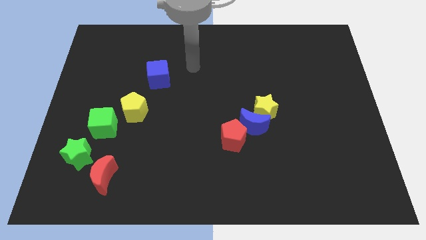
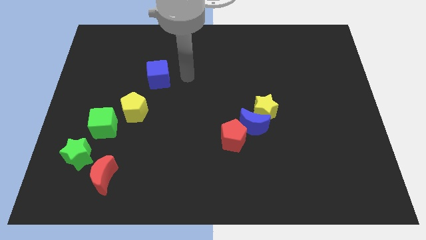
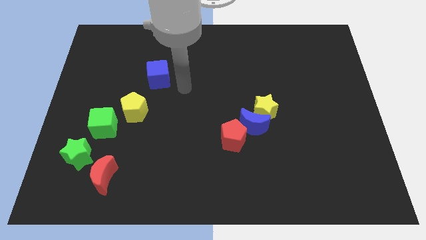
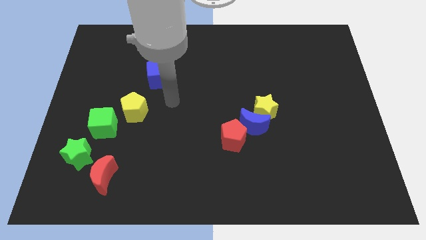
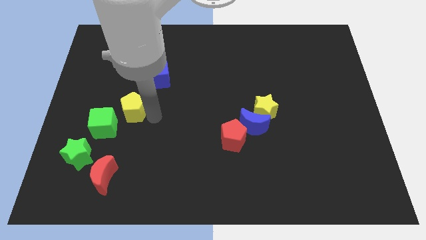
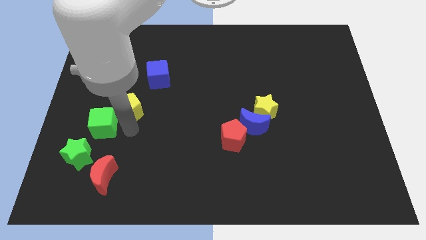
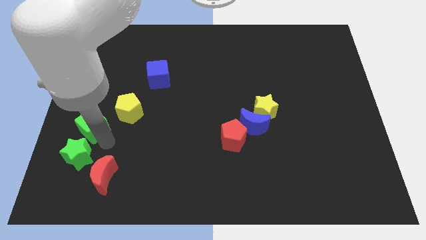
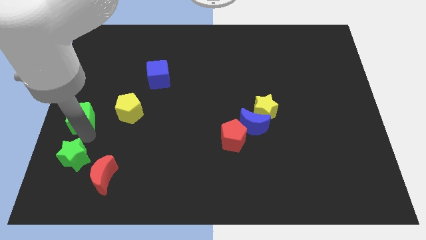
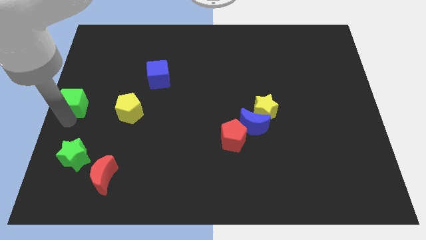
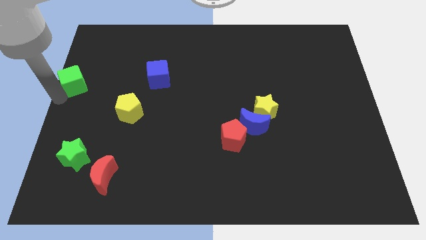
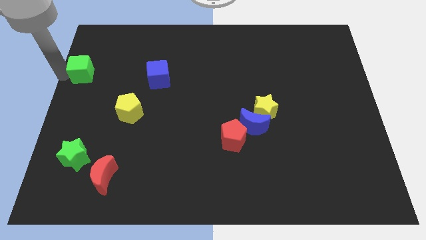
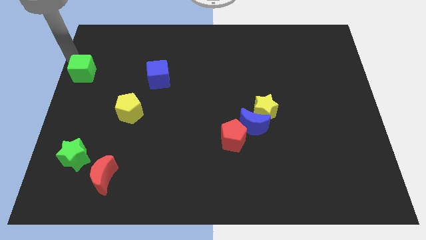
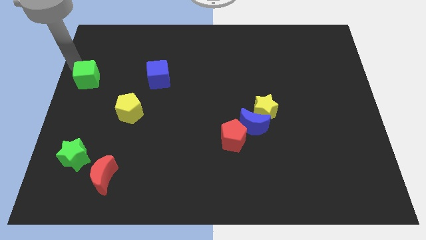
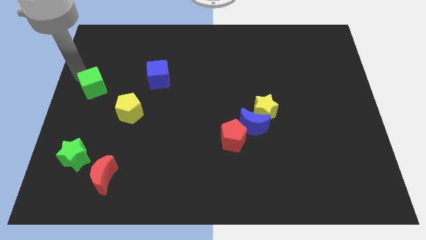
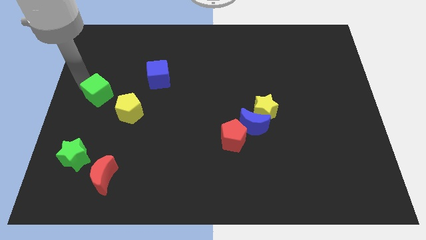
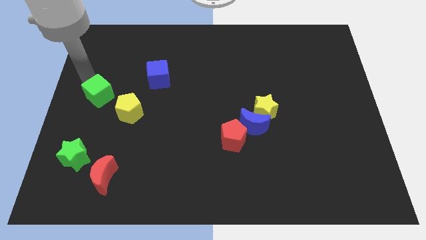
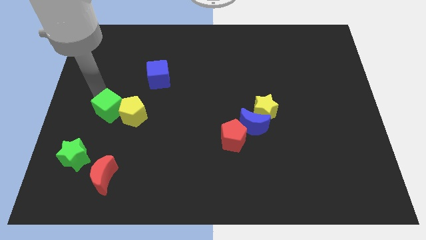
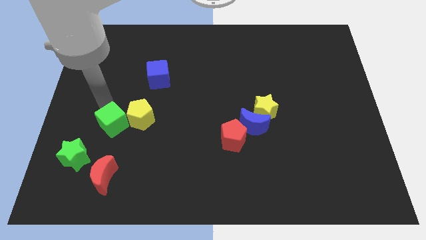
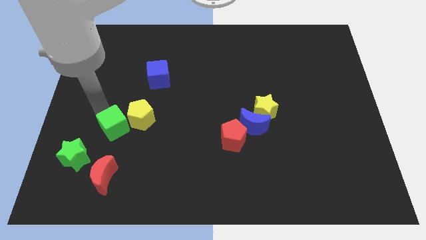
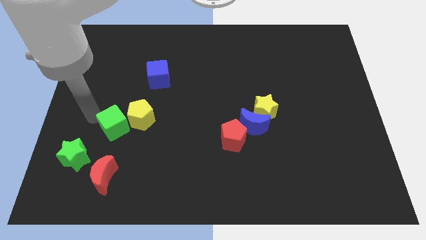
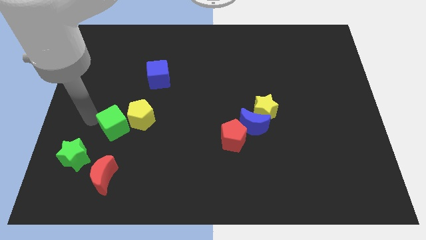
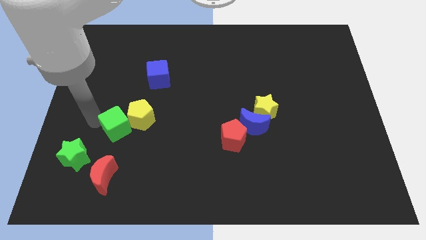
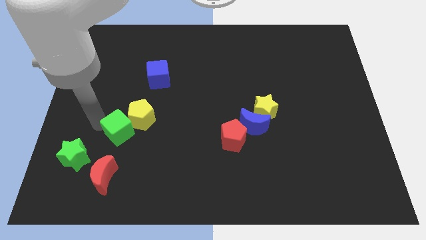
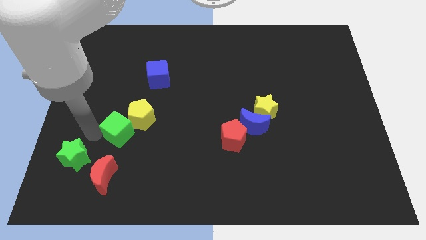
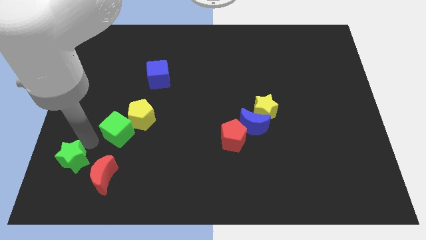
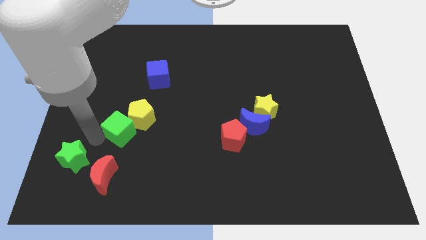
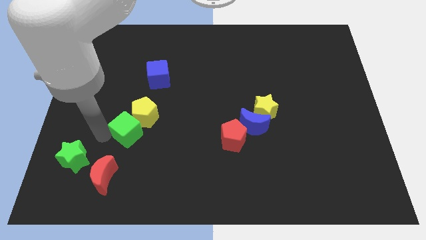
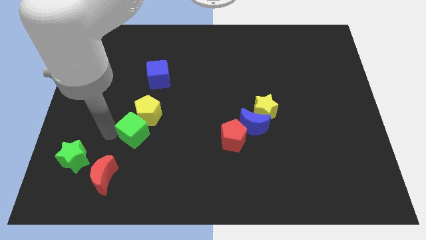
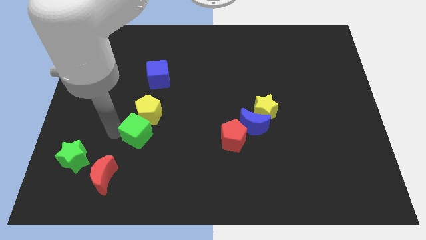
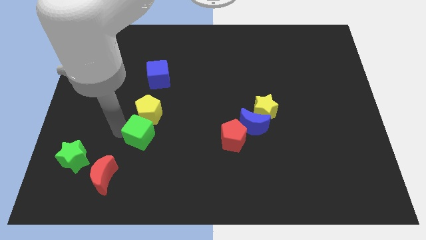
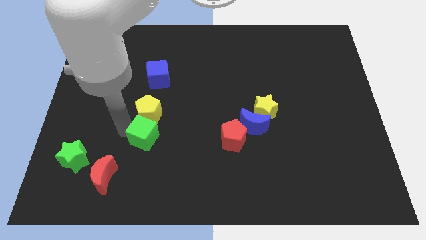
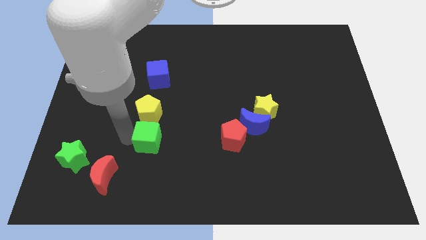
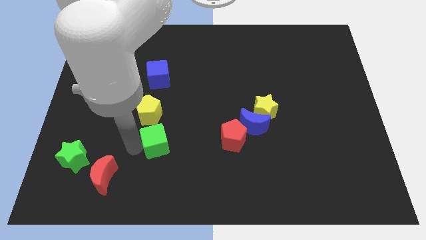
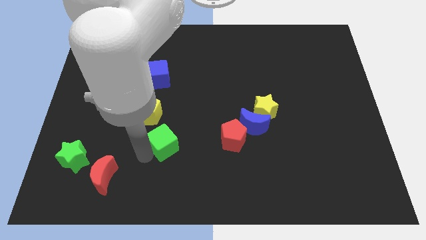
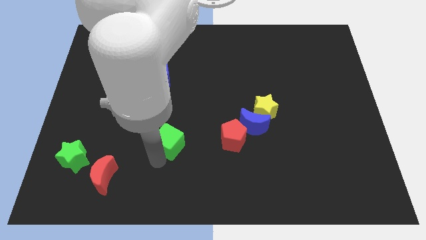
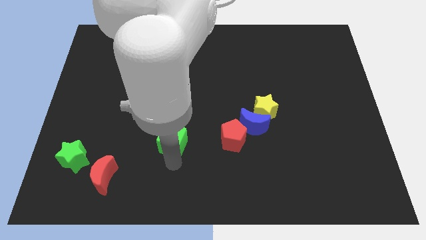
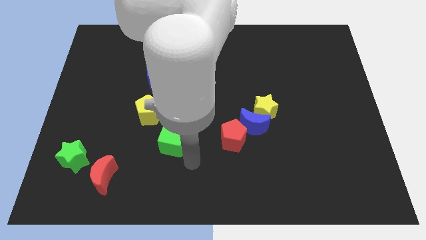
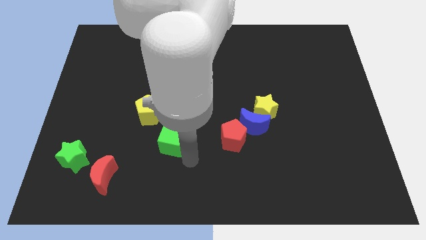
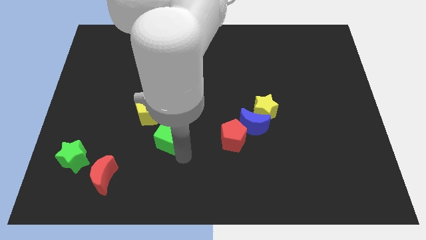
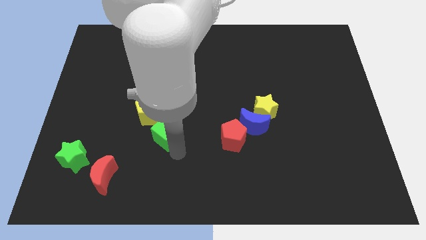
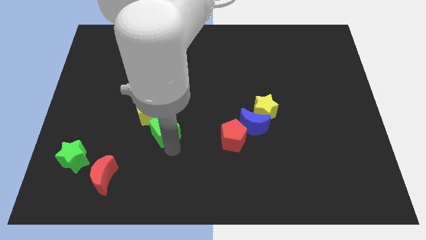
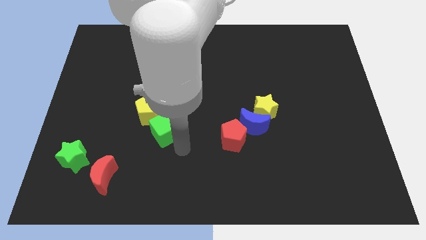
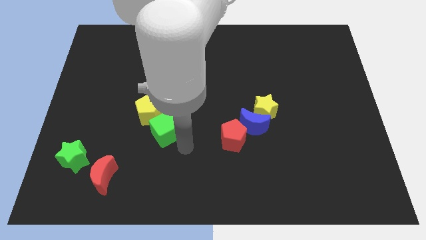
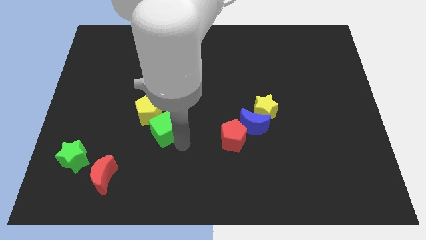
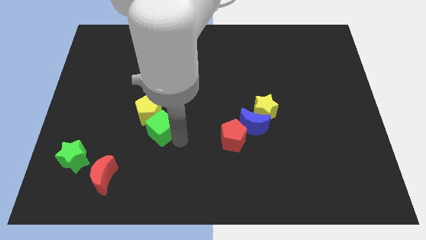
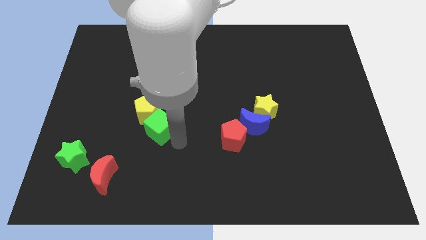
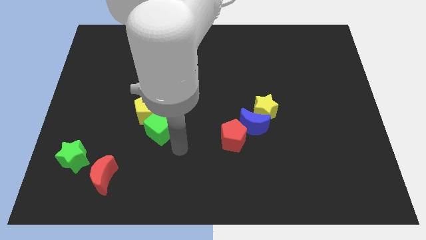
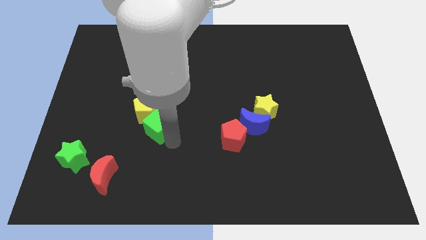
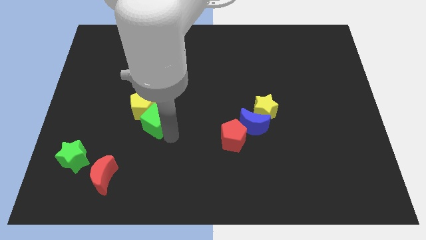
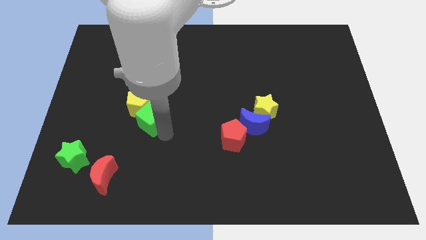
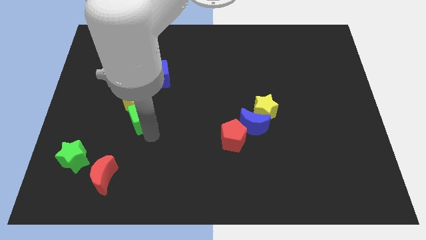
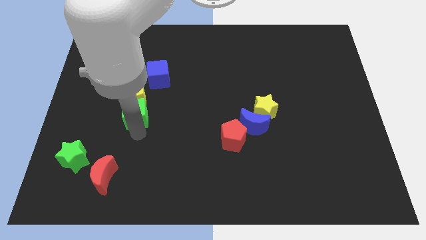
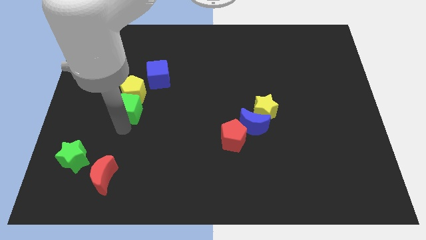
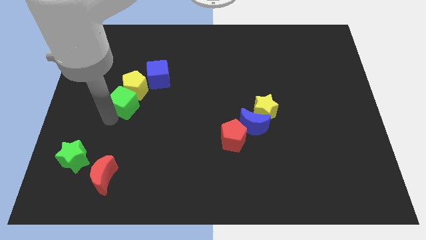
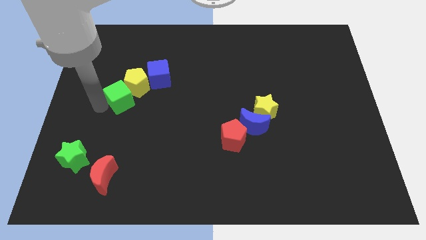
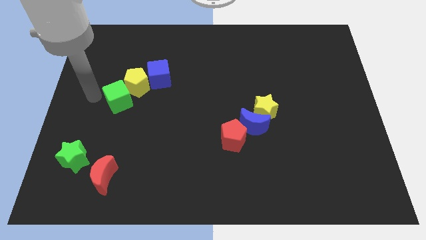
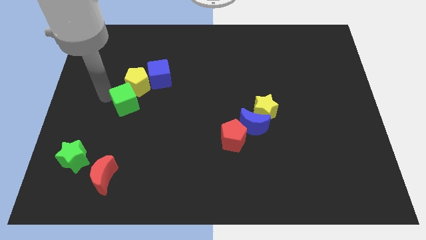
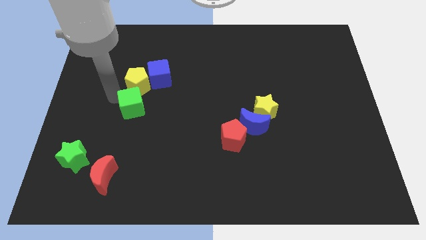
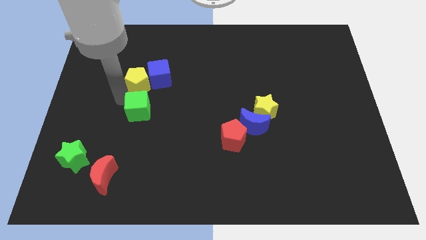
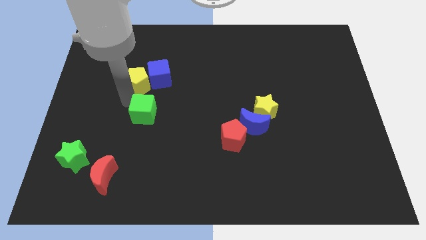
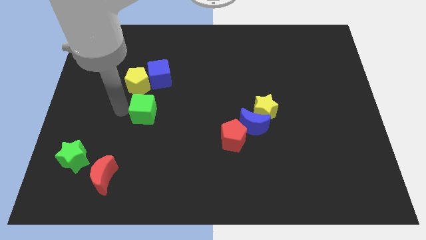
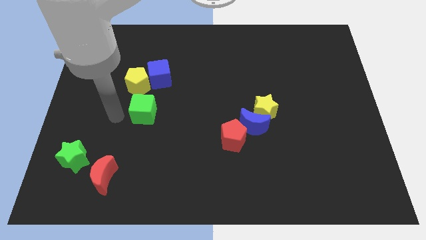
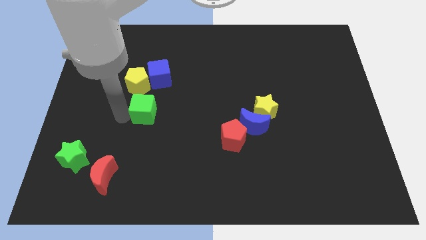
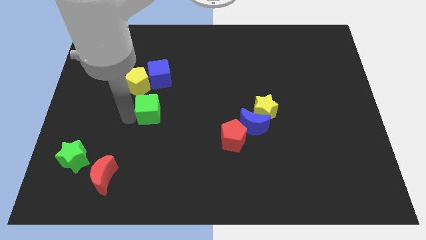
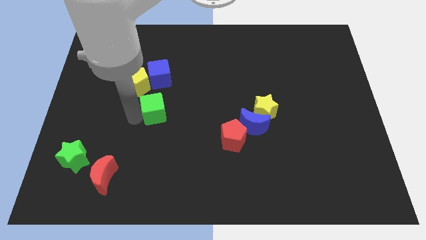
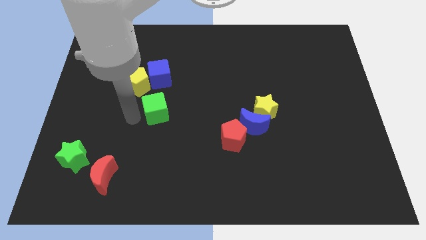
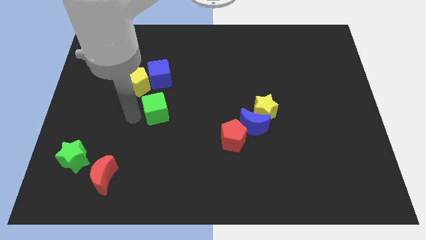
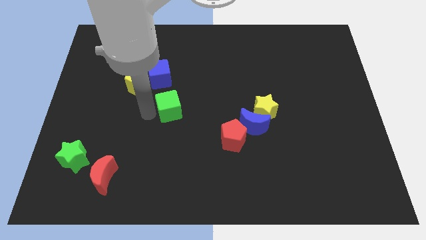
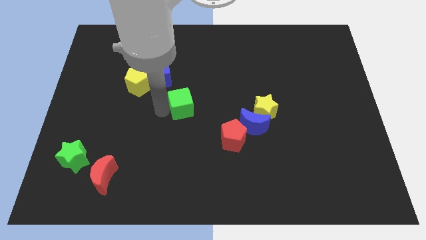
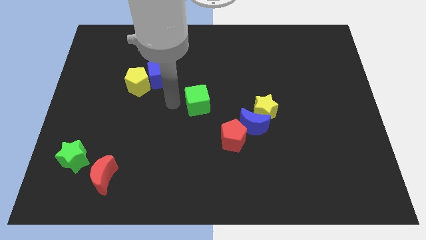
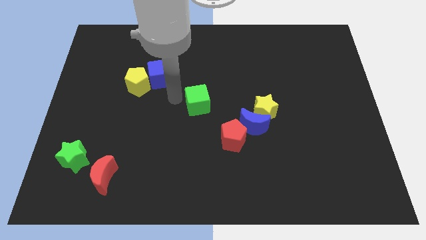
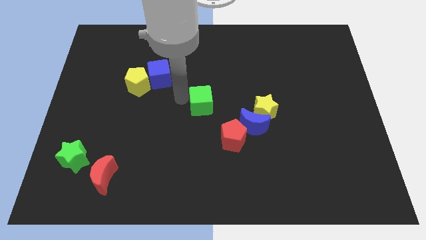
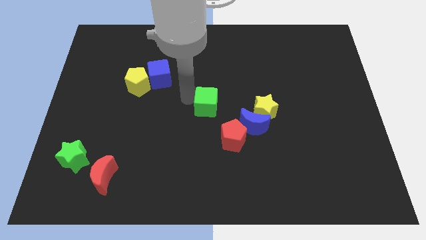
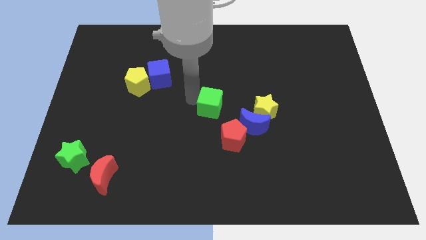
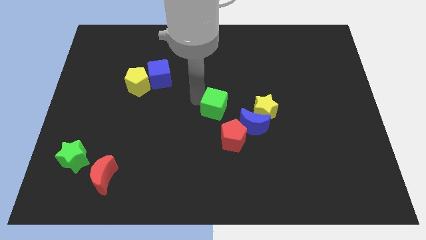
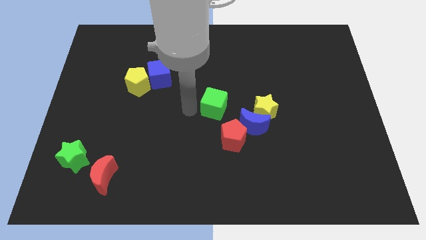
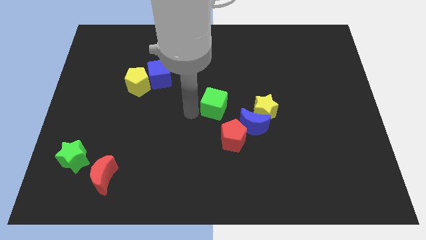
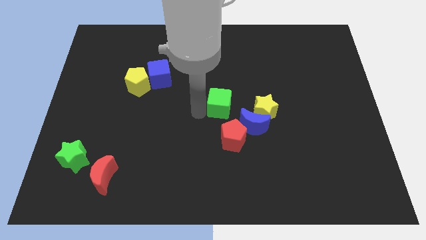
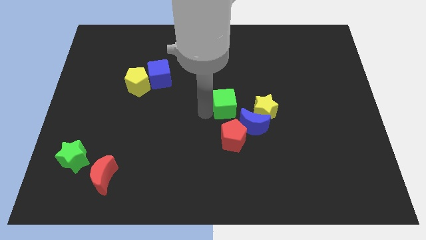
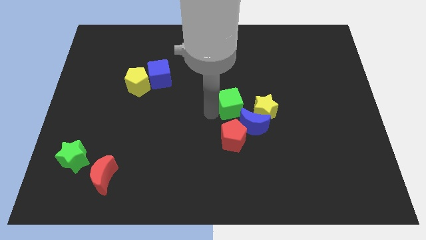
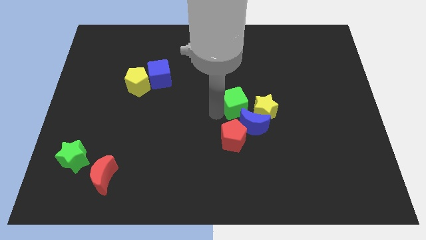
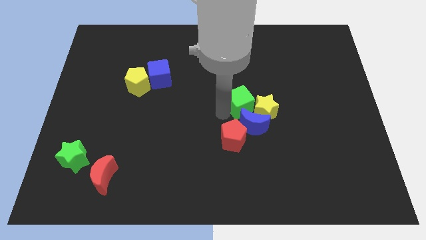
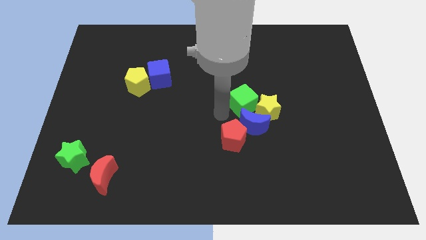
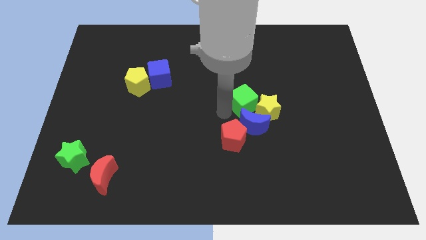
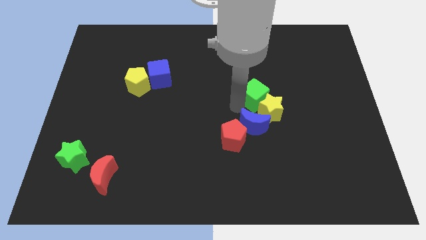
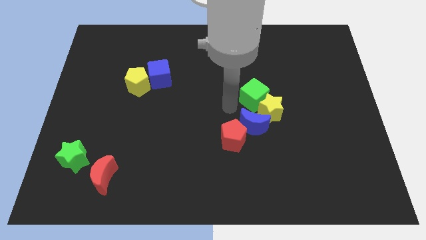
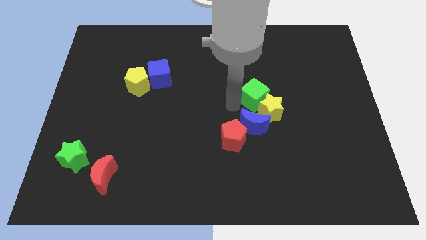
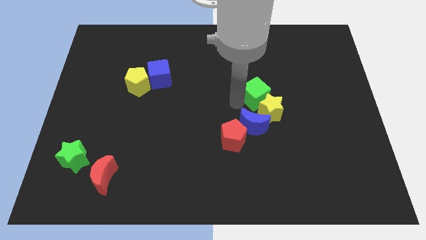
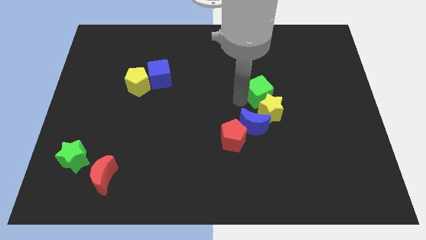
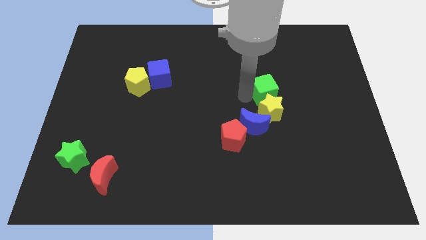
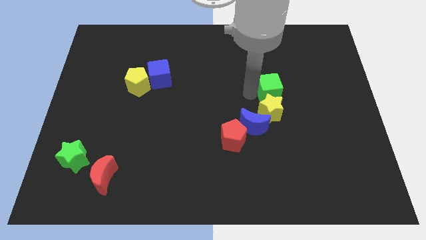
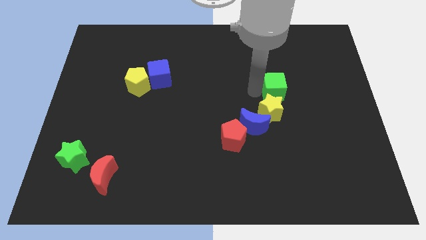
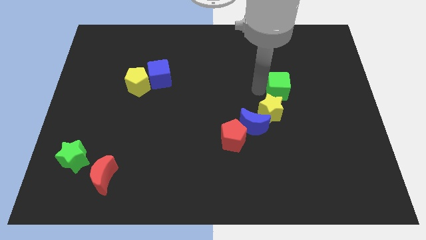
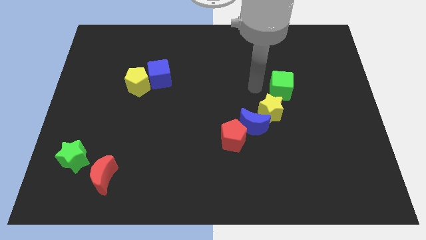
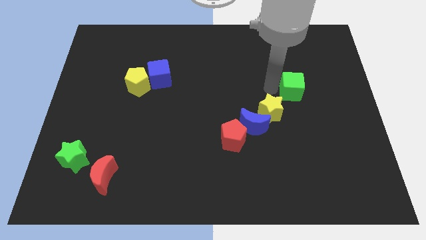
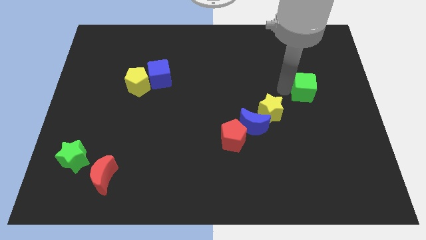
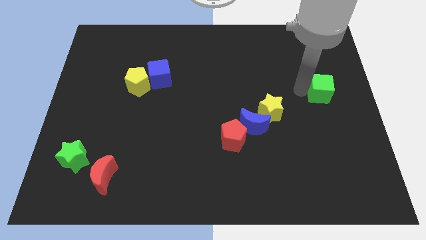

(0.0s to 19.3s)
push the green cube to the right side
